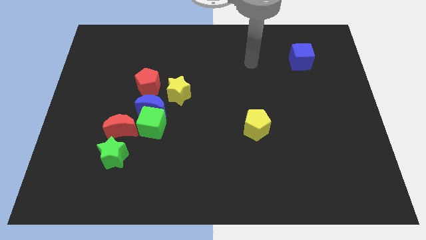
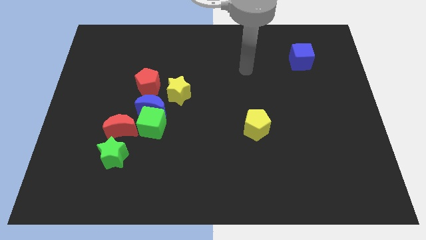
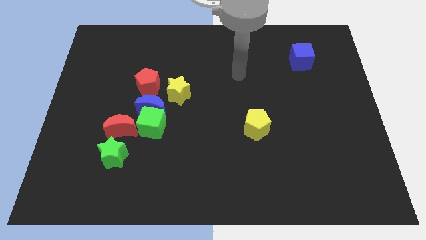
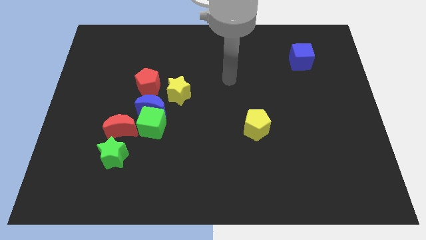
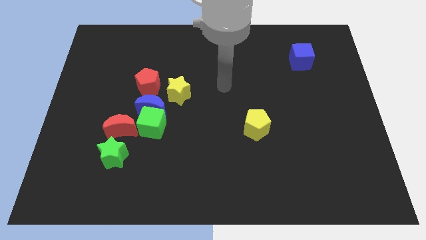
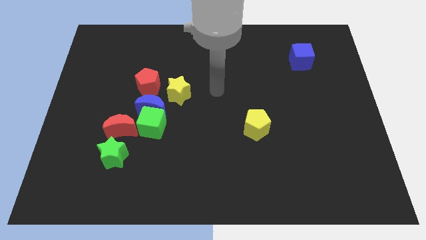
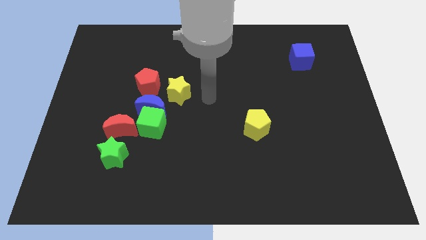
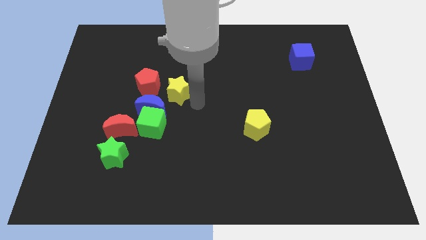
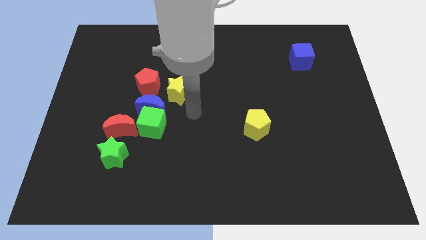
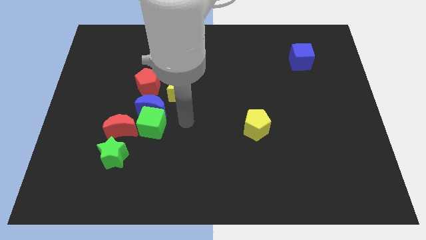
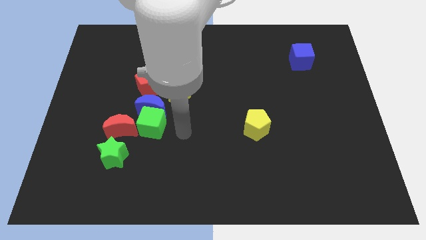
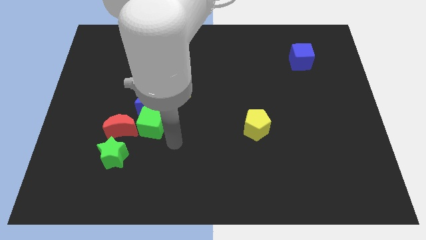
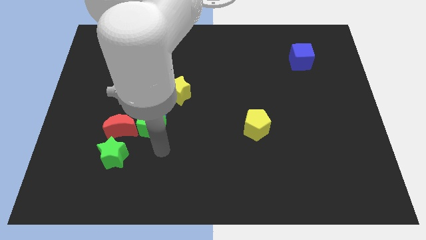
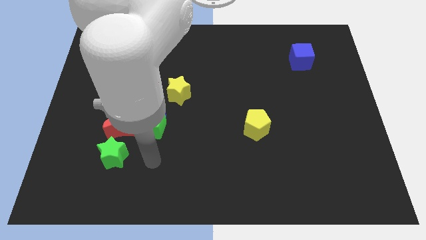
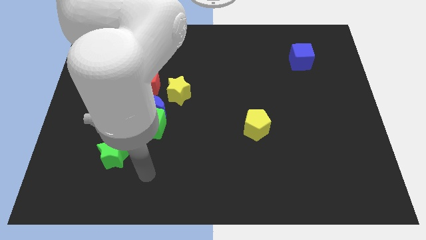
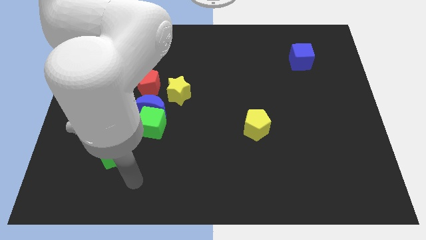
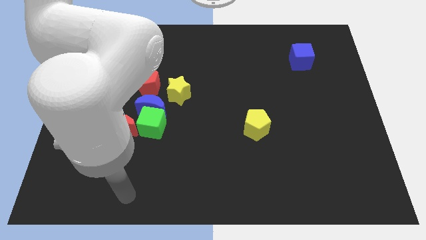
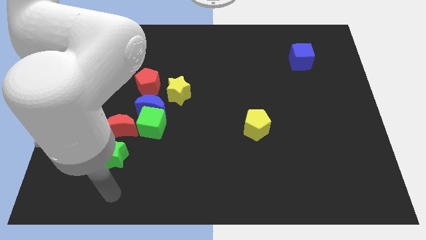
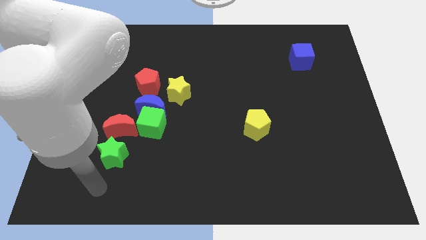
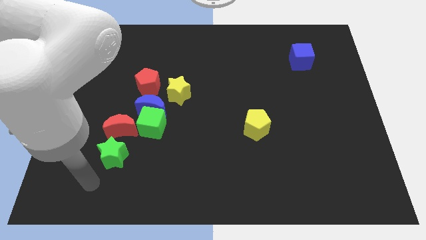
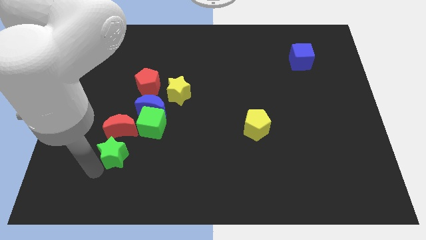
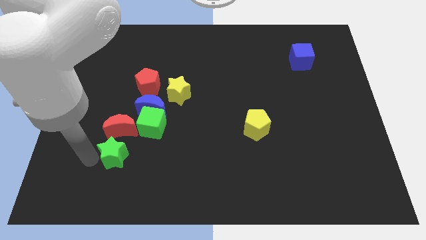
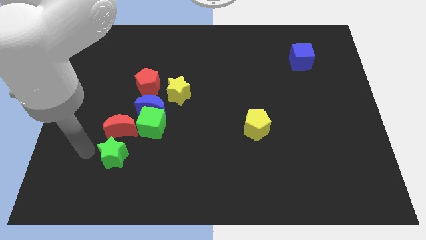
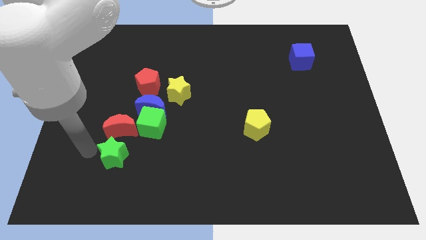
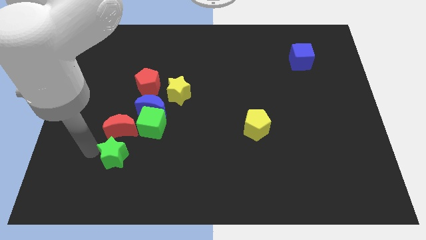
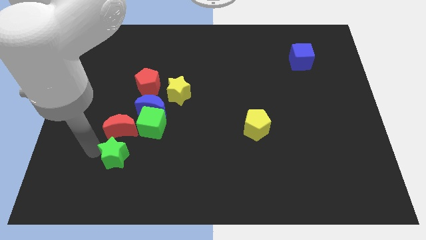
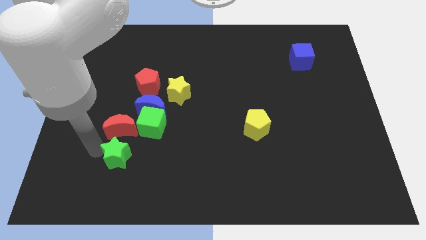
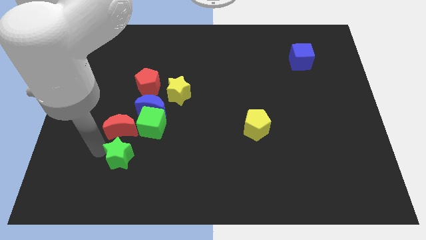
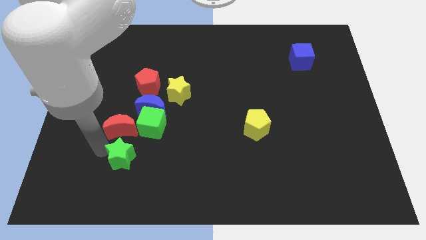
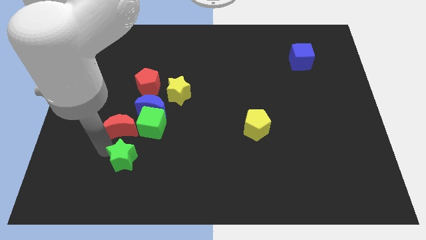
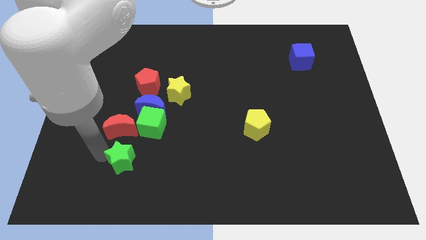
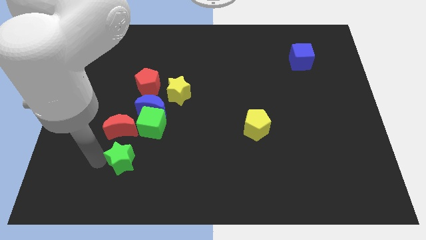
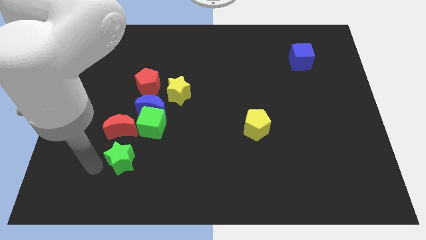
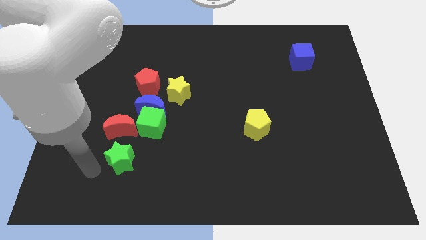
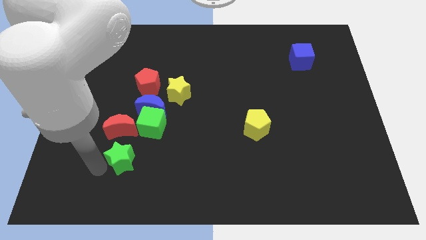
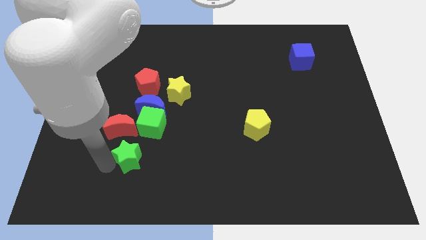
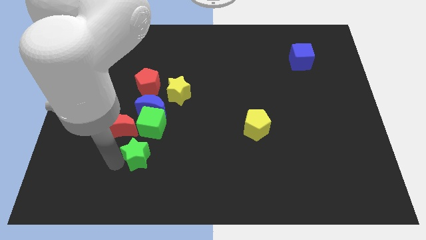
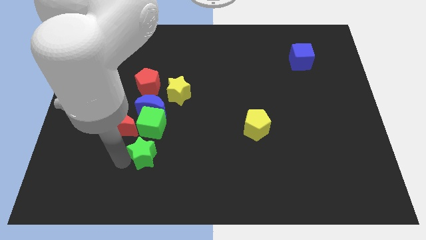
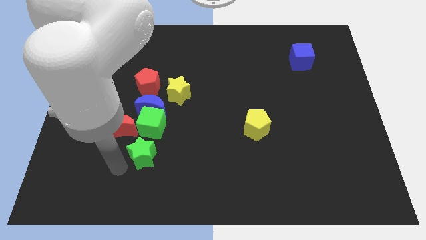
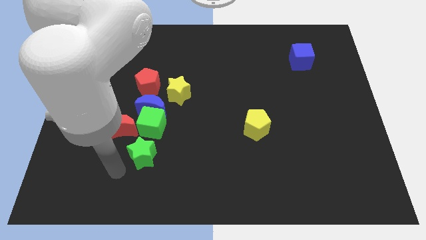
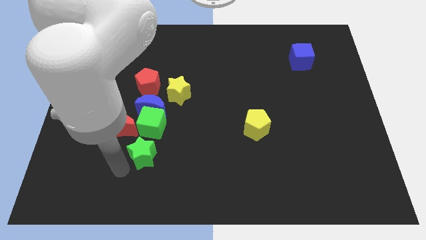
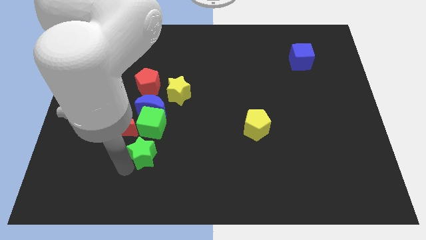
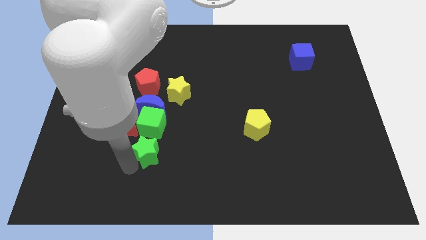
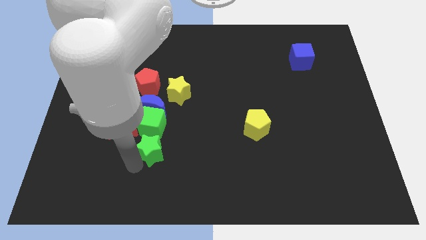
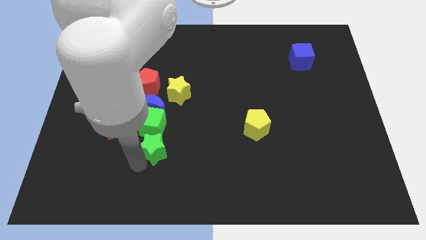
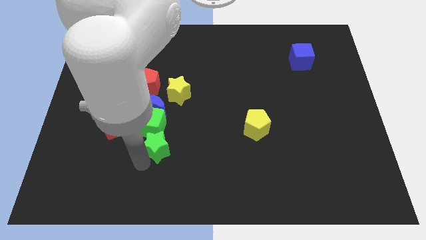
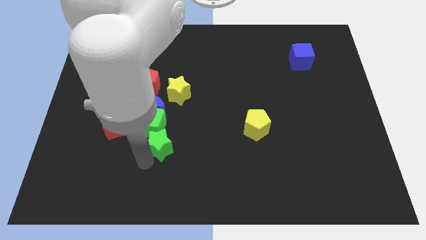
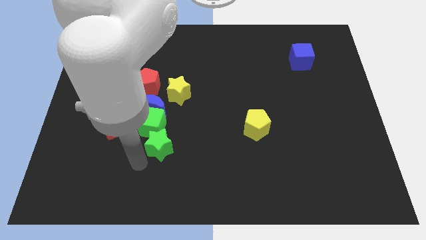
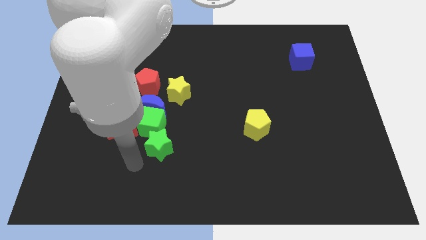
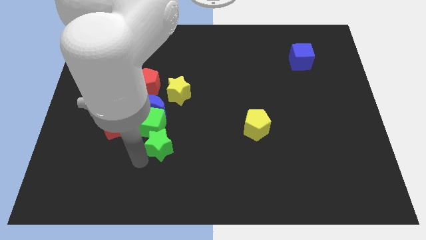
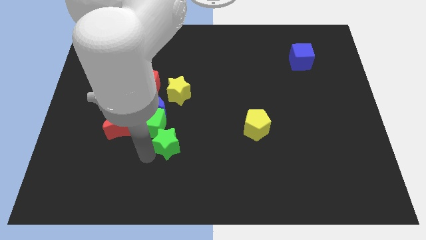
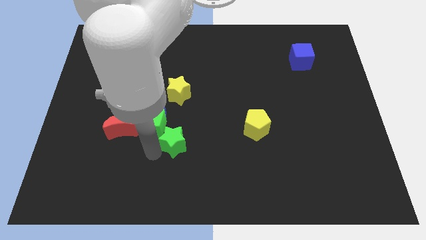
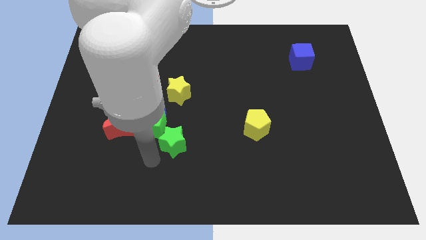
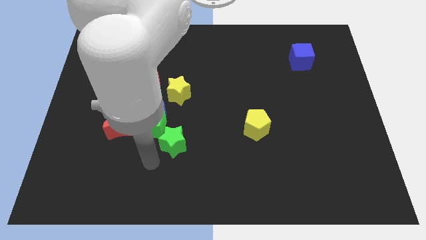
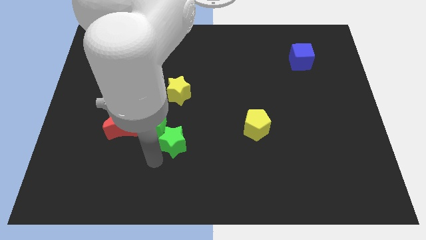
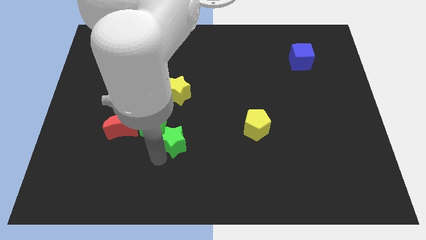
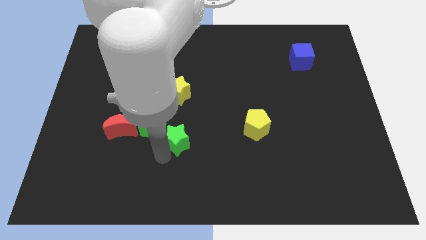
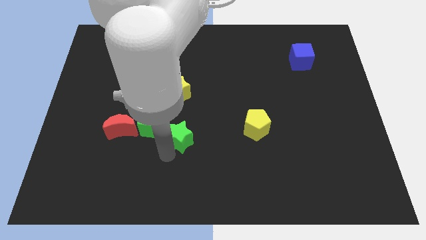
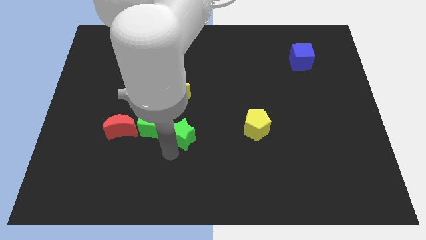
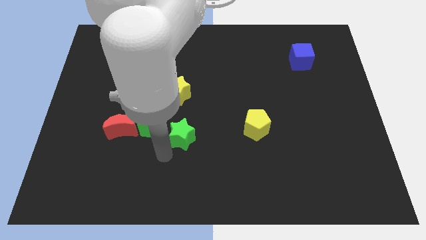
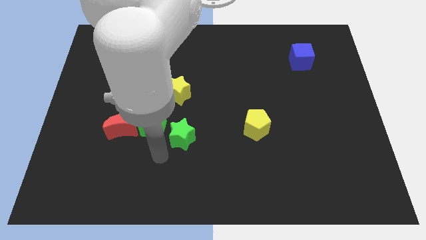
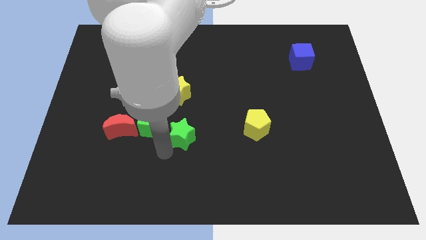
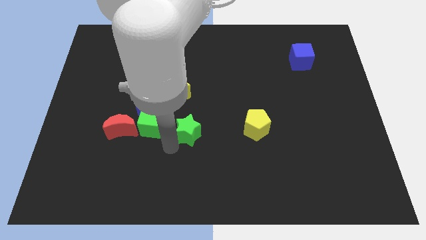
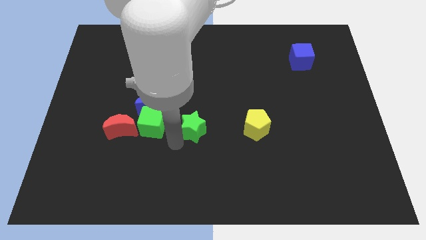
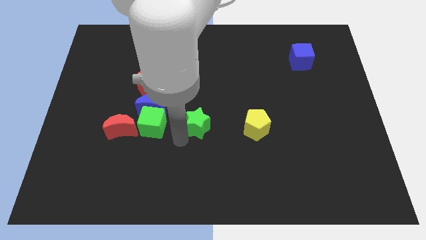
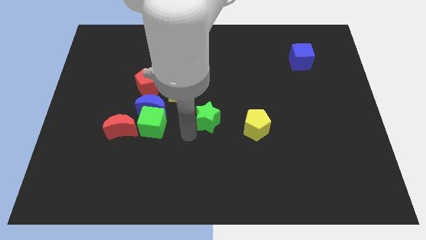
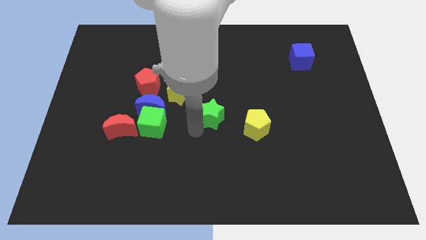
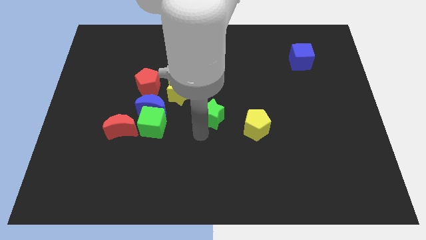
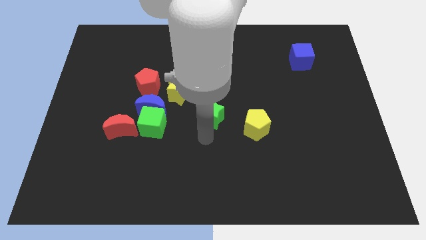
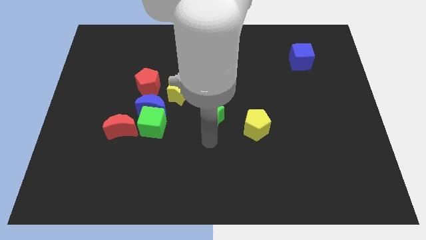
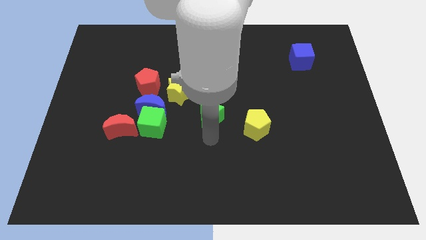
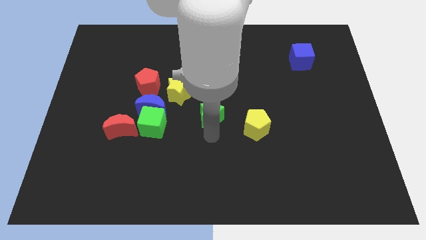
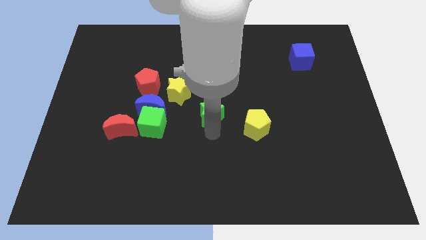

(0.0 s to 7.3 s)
push the green star up and then right

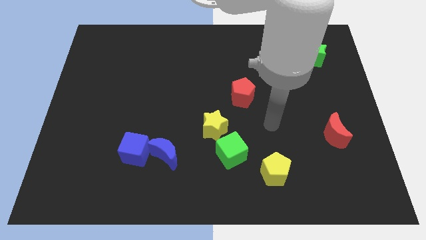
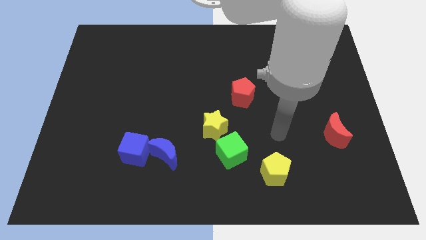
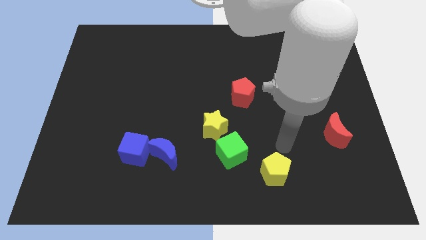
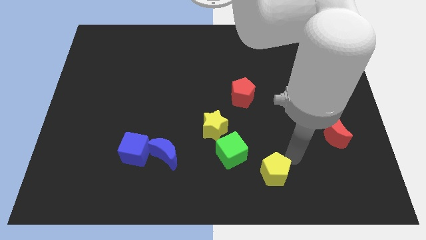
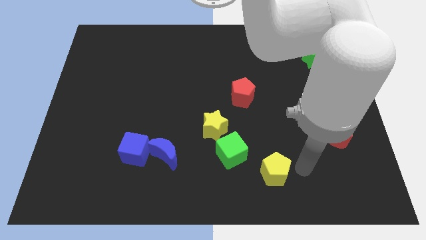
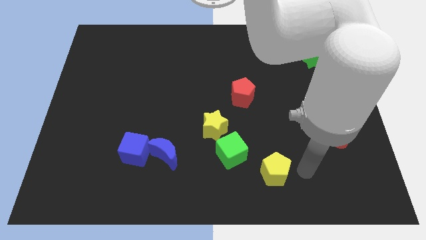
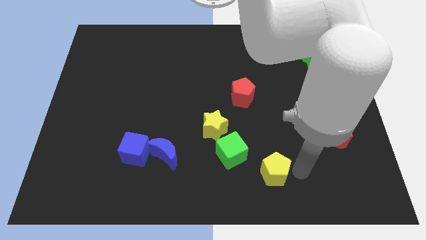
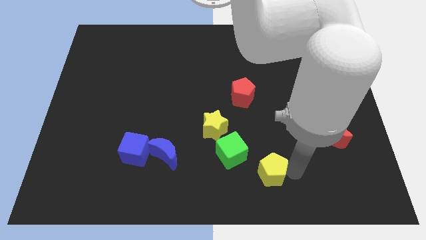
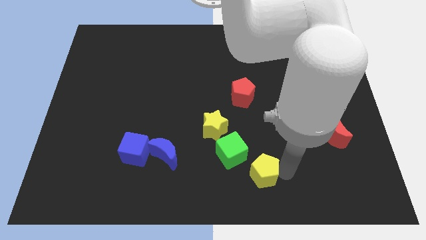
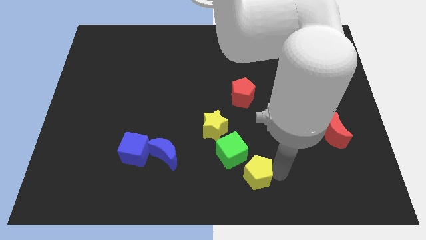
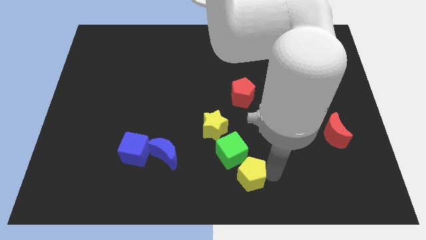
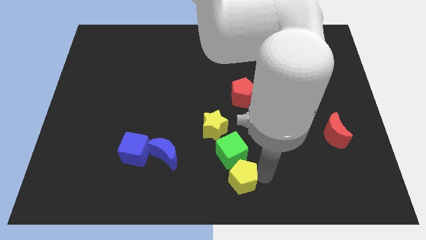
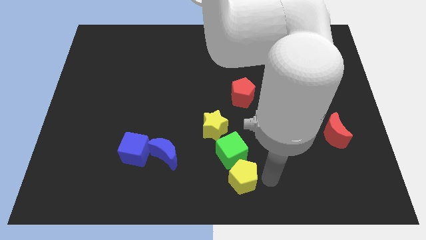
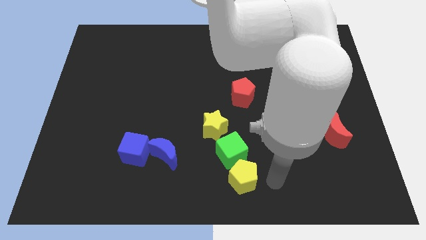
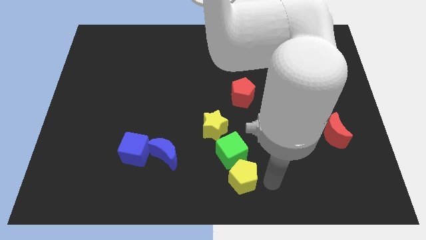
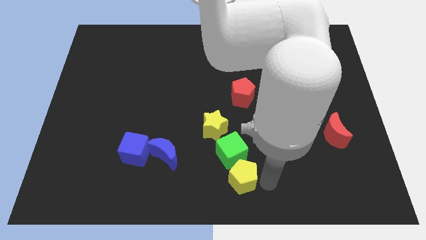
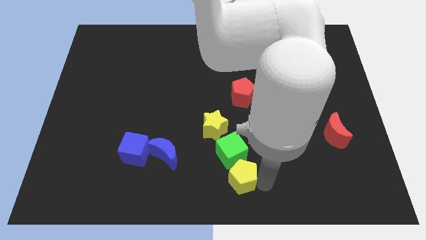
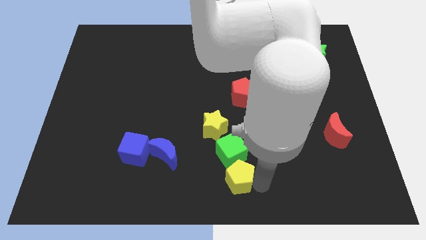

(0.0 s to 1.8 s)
push the yellow pentagon to the left somewhat
